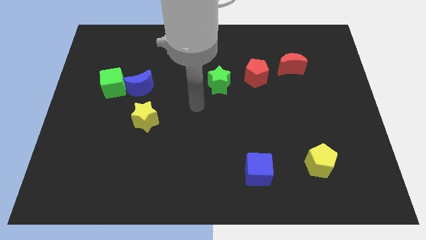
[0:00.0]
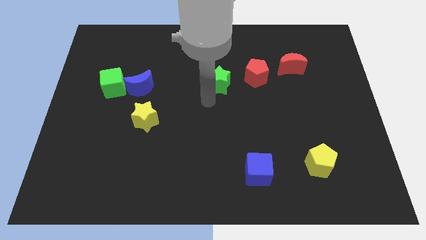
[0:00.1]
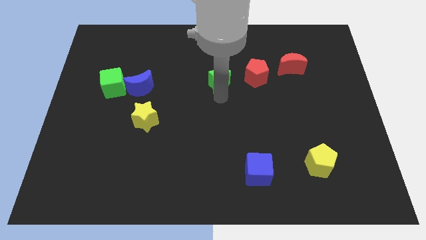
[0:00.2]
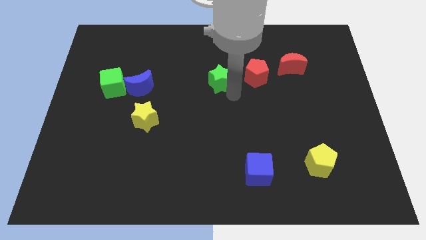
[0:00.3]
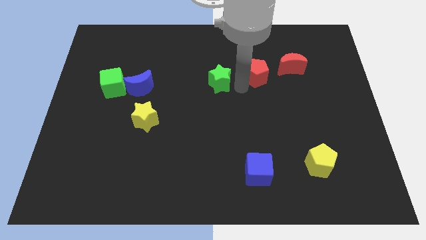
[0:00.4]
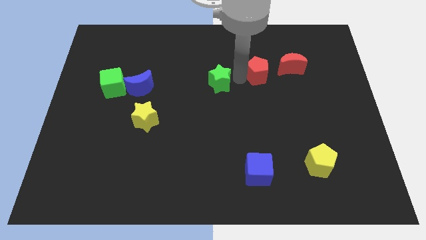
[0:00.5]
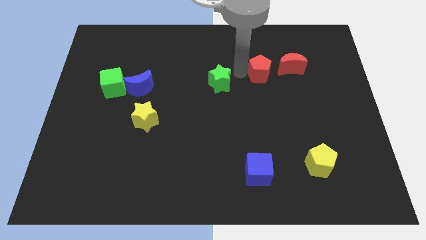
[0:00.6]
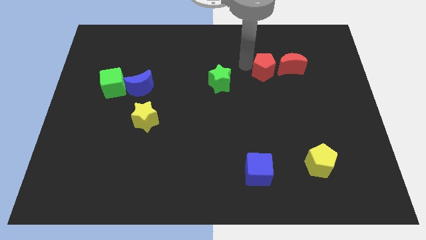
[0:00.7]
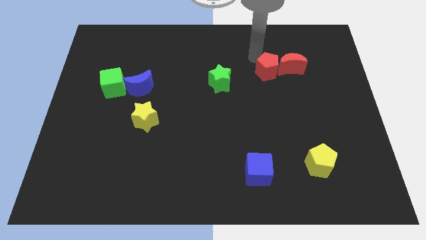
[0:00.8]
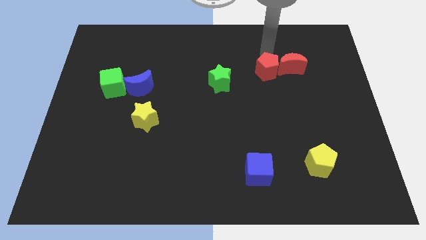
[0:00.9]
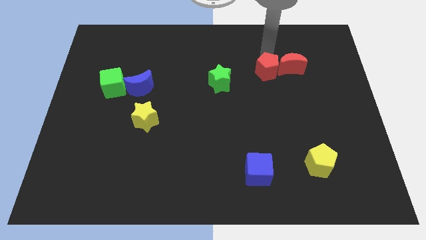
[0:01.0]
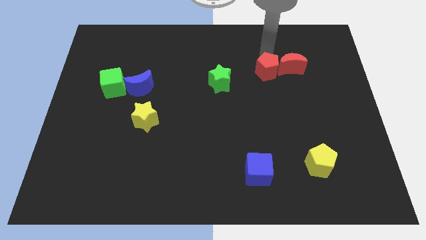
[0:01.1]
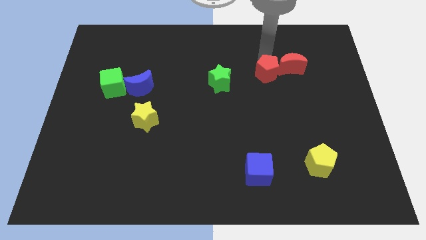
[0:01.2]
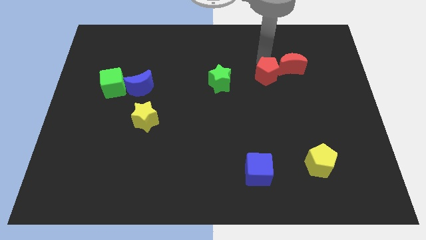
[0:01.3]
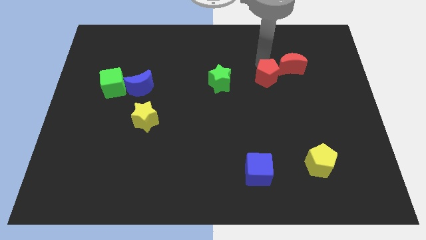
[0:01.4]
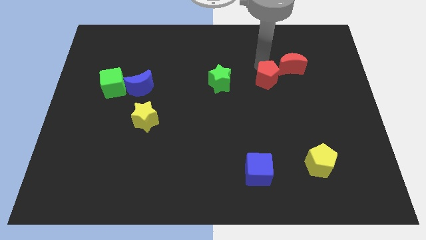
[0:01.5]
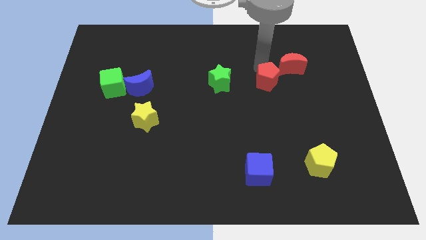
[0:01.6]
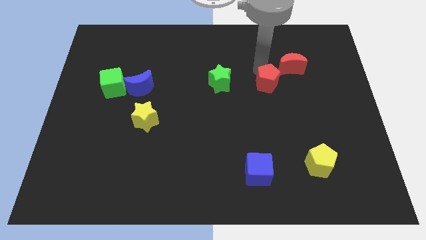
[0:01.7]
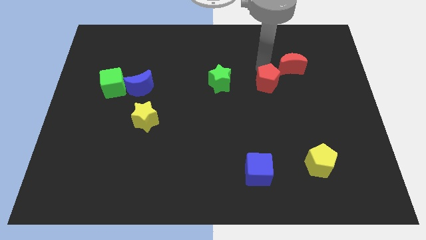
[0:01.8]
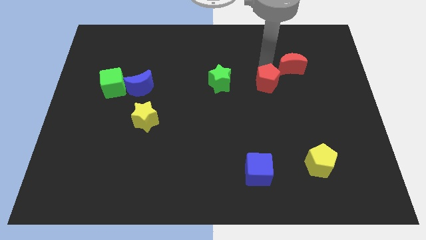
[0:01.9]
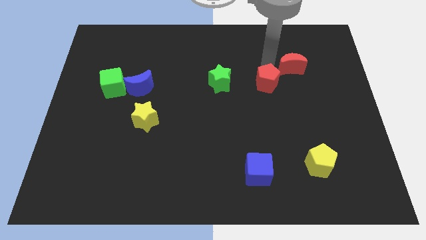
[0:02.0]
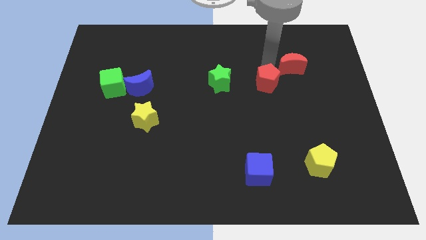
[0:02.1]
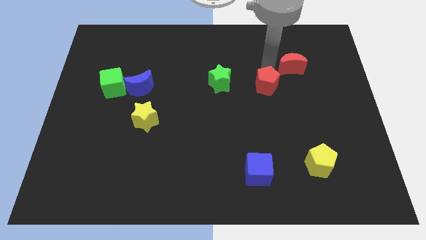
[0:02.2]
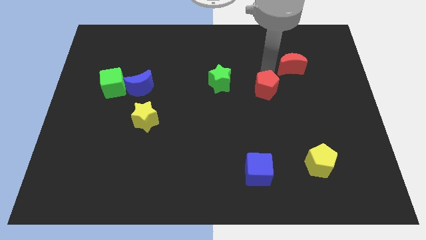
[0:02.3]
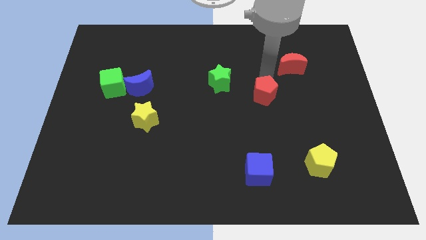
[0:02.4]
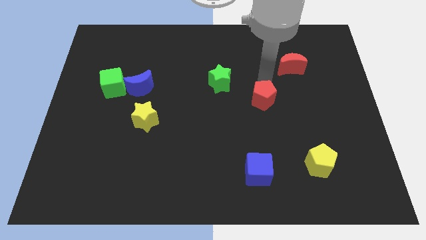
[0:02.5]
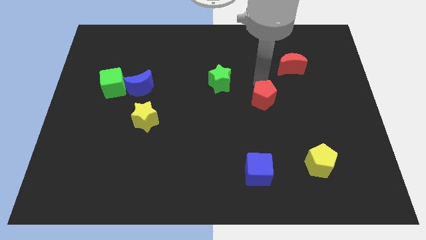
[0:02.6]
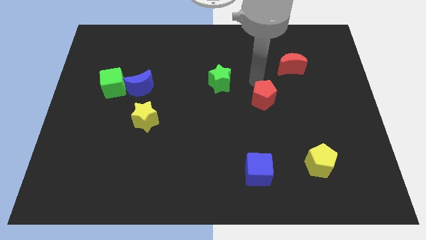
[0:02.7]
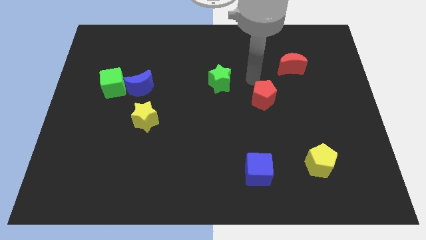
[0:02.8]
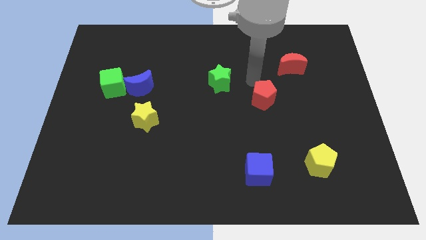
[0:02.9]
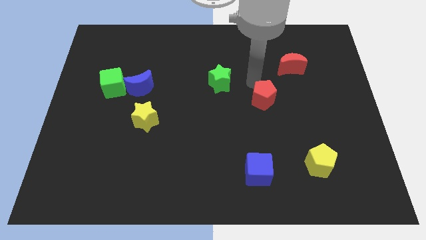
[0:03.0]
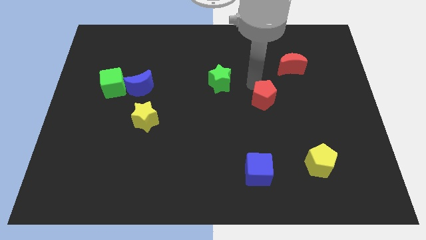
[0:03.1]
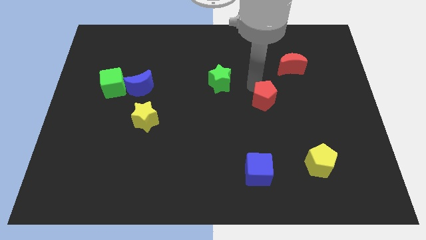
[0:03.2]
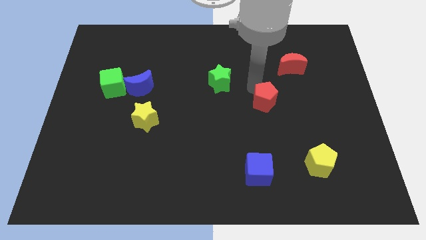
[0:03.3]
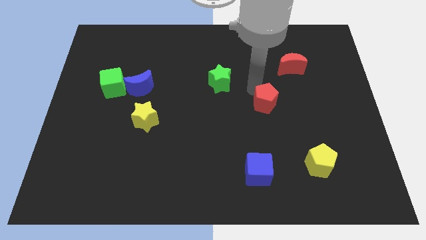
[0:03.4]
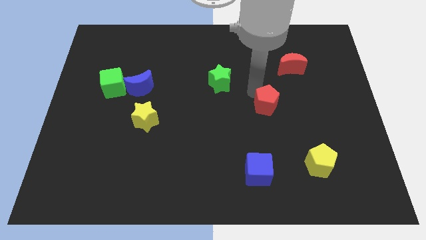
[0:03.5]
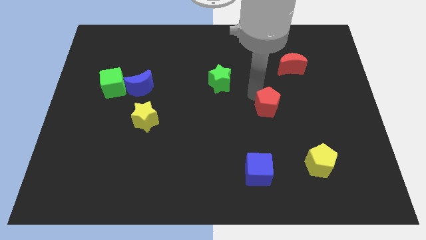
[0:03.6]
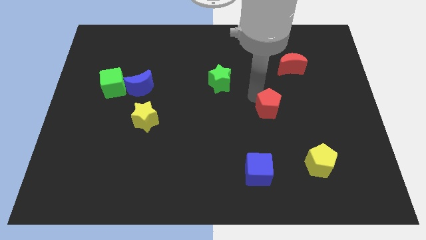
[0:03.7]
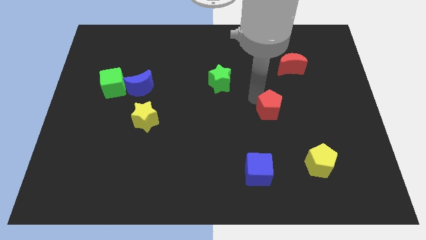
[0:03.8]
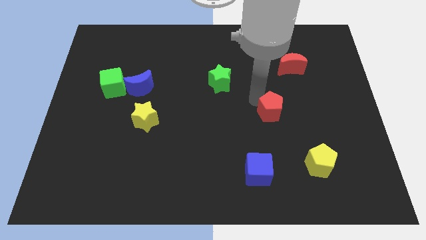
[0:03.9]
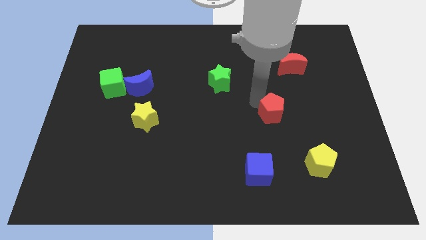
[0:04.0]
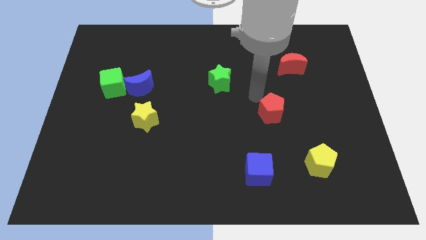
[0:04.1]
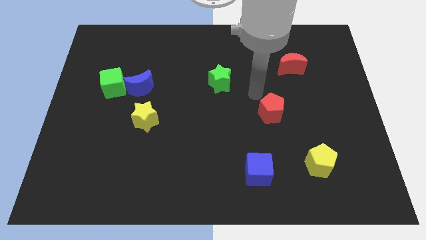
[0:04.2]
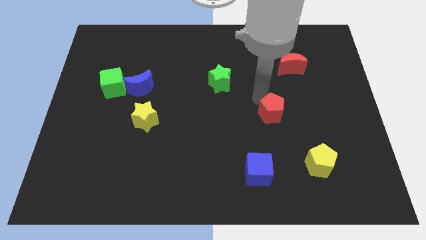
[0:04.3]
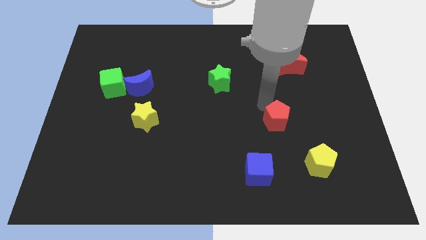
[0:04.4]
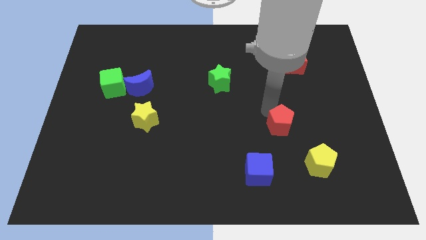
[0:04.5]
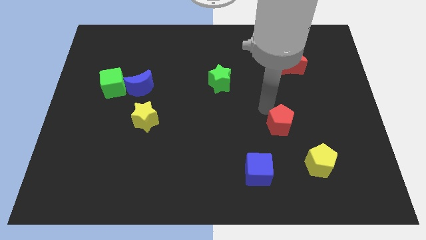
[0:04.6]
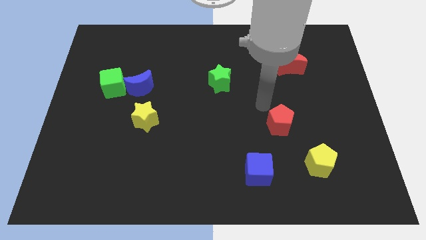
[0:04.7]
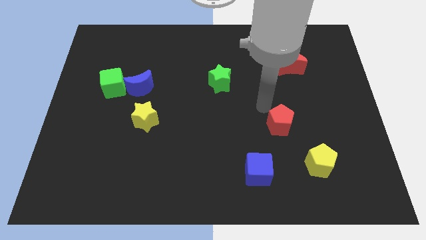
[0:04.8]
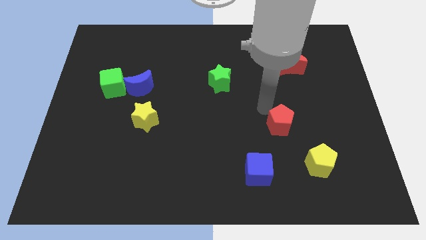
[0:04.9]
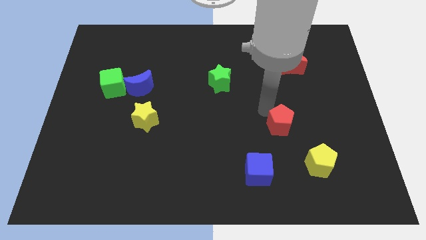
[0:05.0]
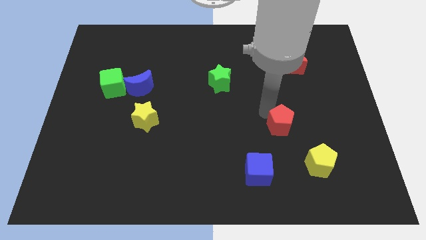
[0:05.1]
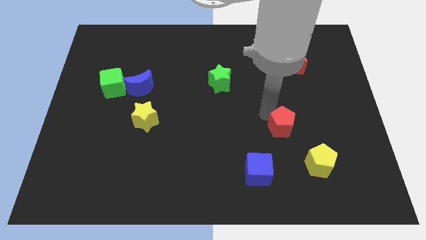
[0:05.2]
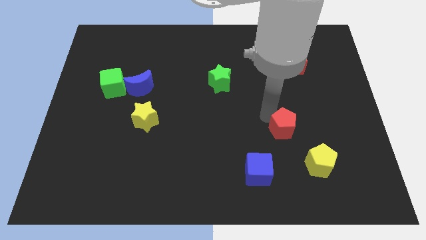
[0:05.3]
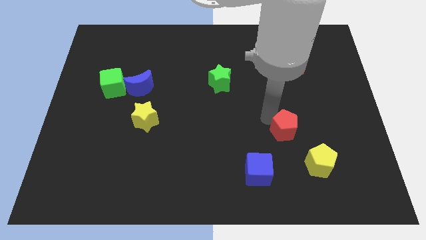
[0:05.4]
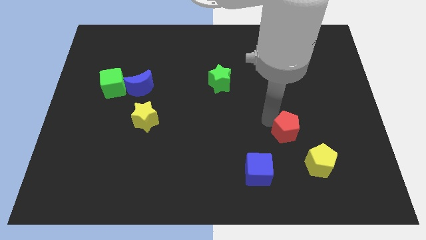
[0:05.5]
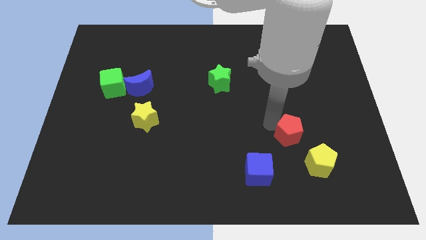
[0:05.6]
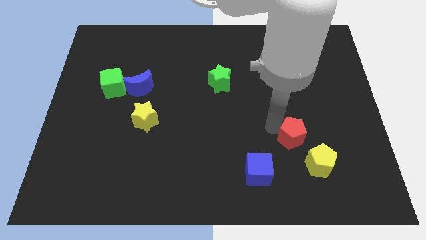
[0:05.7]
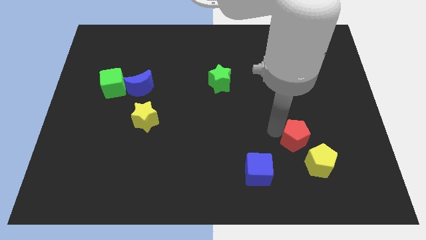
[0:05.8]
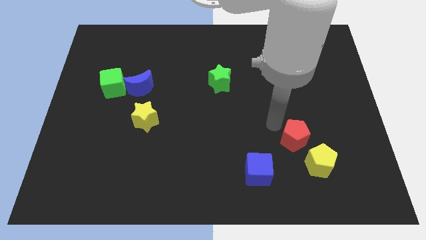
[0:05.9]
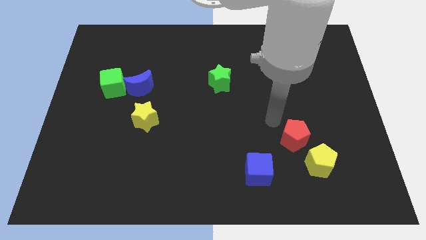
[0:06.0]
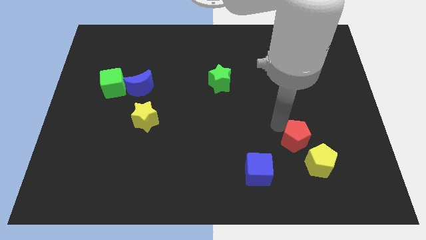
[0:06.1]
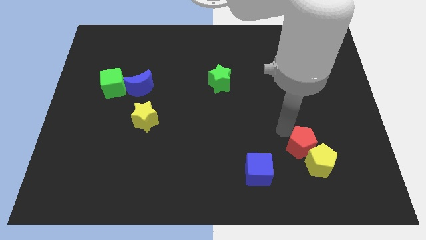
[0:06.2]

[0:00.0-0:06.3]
move the red pentagon close to the yellow pentagon
